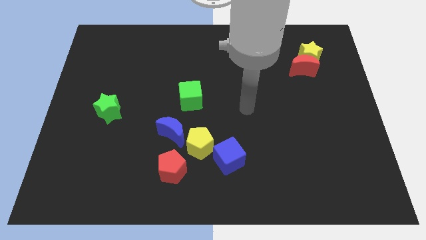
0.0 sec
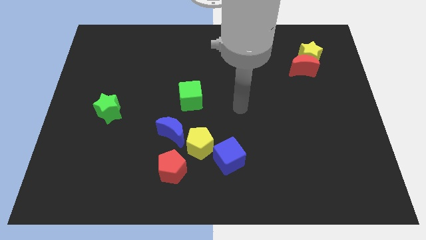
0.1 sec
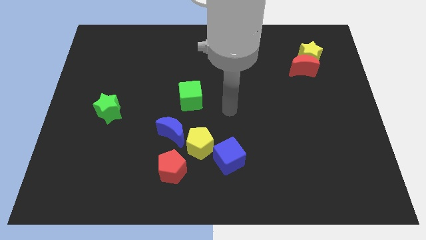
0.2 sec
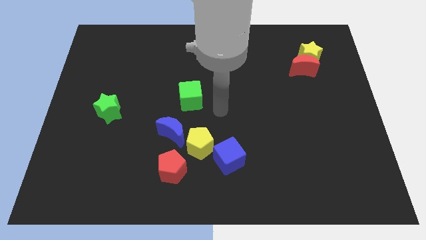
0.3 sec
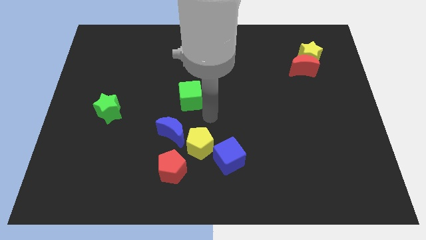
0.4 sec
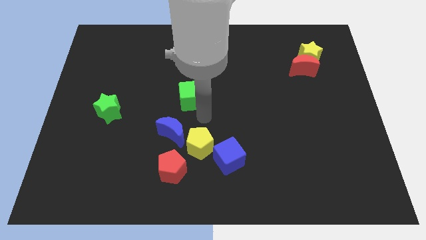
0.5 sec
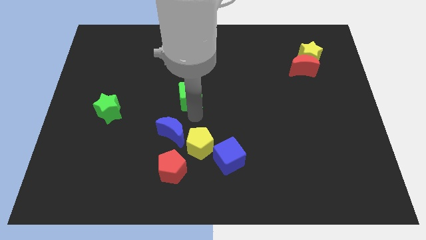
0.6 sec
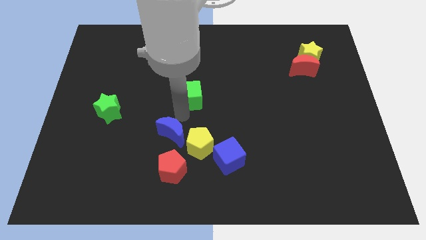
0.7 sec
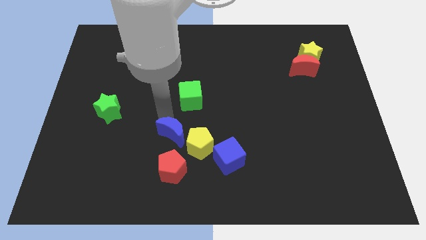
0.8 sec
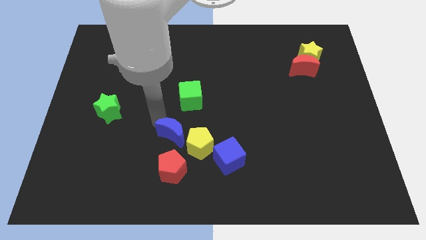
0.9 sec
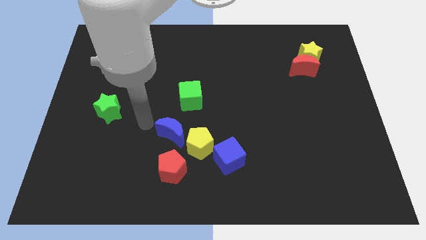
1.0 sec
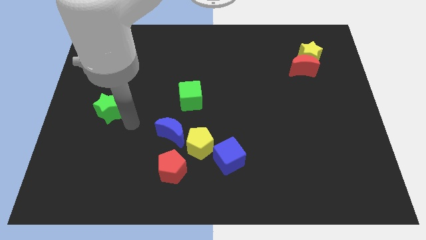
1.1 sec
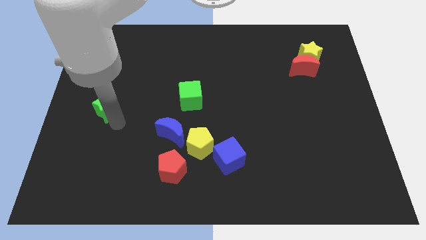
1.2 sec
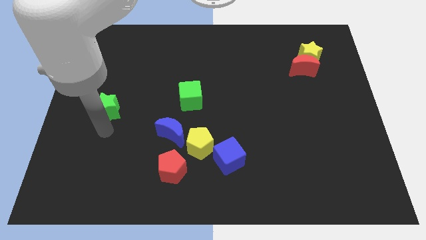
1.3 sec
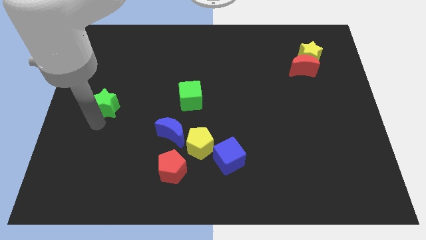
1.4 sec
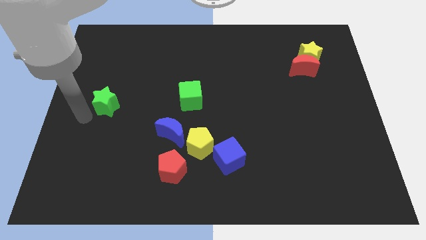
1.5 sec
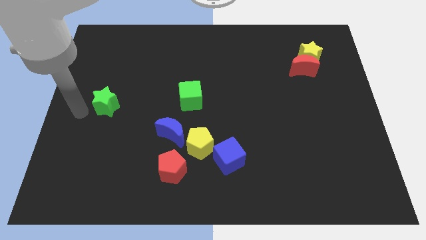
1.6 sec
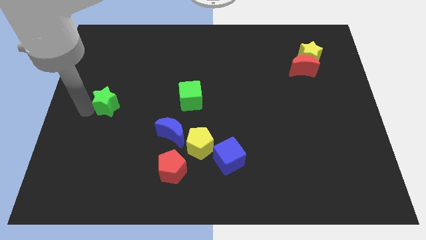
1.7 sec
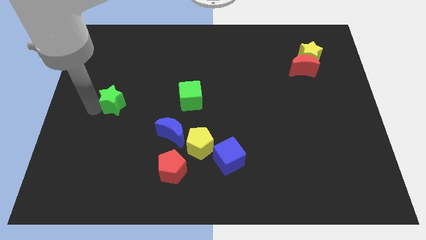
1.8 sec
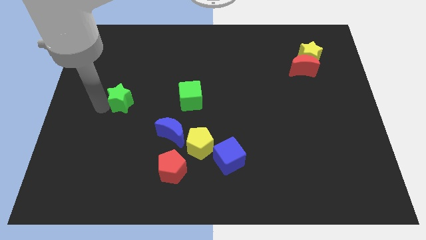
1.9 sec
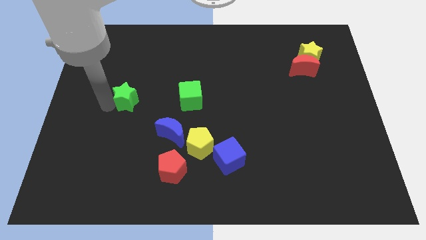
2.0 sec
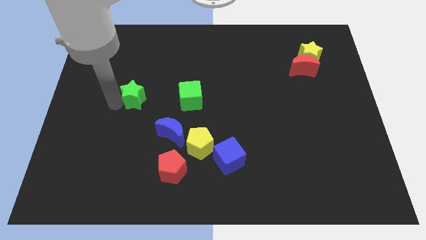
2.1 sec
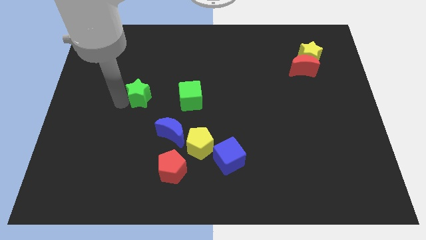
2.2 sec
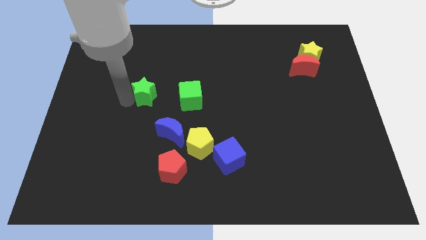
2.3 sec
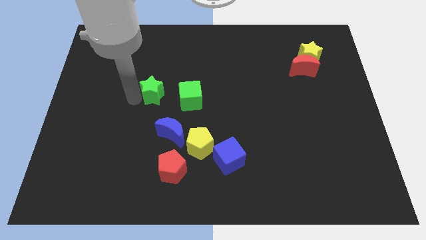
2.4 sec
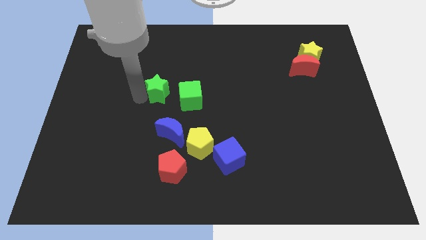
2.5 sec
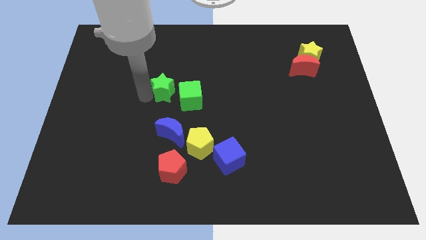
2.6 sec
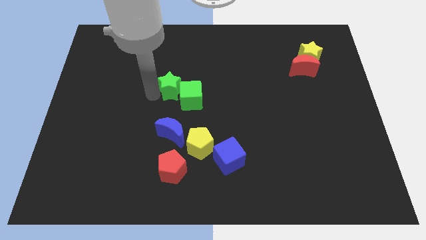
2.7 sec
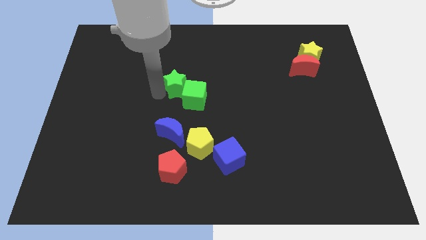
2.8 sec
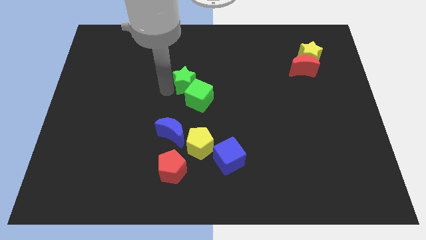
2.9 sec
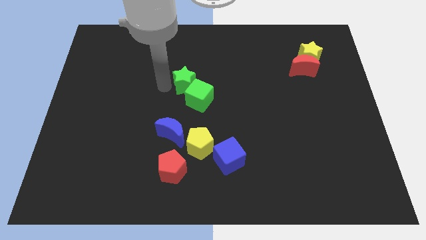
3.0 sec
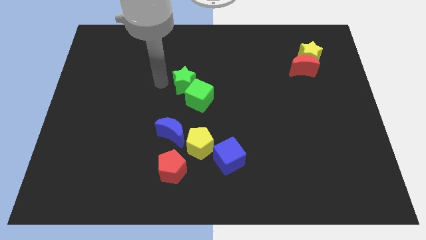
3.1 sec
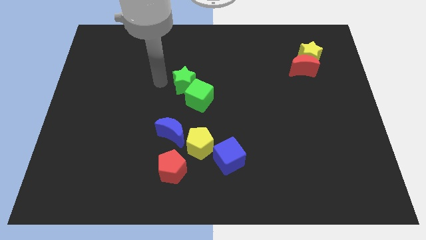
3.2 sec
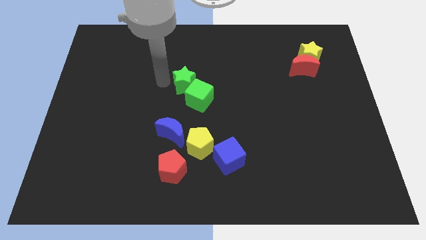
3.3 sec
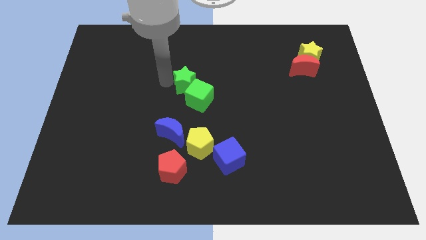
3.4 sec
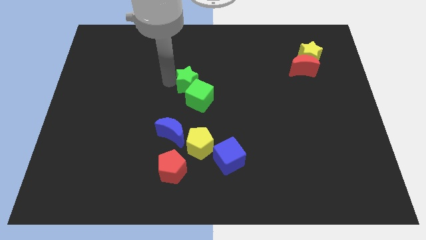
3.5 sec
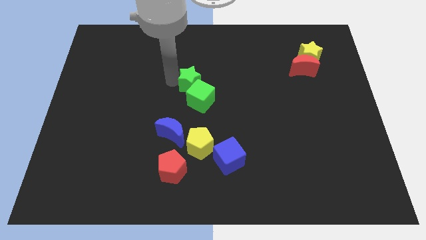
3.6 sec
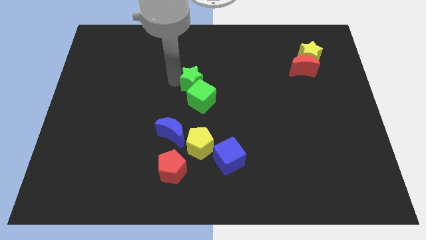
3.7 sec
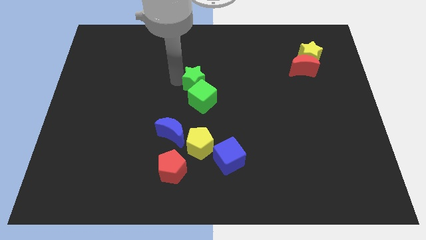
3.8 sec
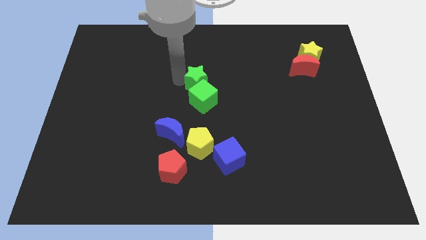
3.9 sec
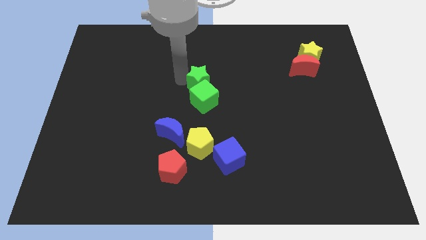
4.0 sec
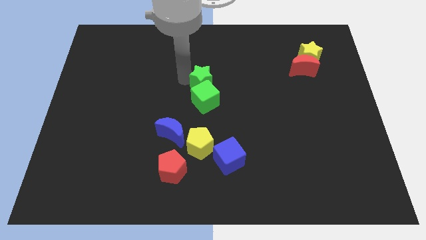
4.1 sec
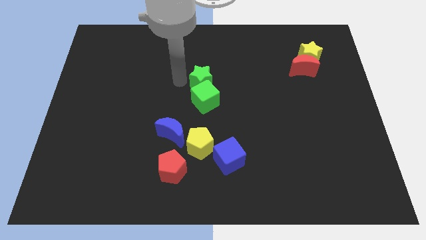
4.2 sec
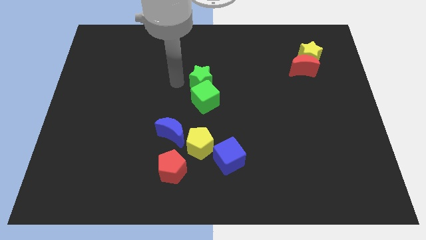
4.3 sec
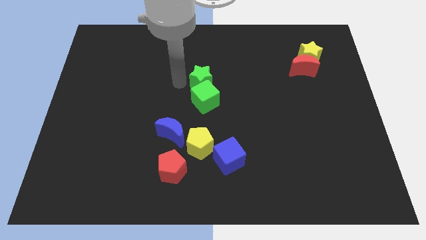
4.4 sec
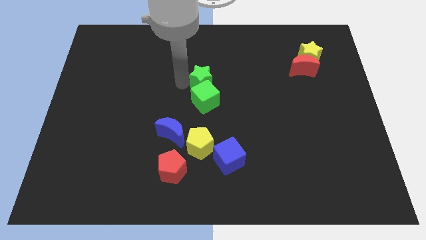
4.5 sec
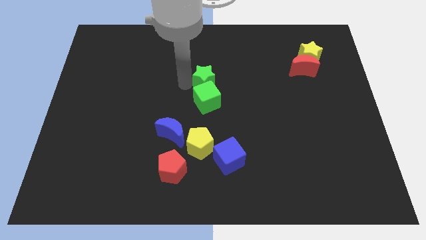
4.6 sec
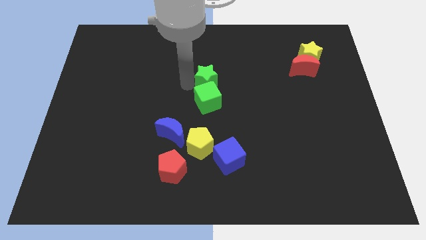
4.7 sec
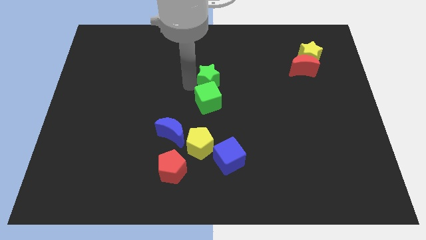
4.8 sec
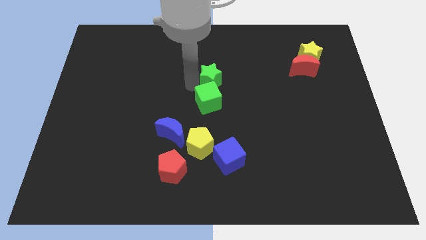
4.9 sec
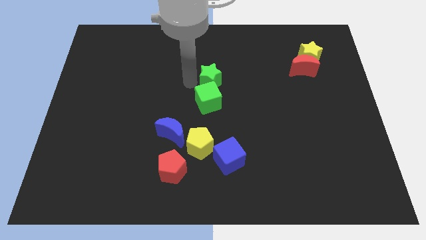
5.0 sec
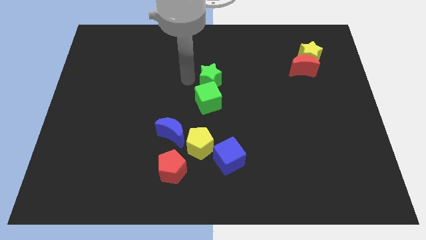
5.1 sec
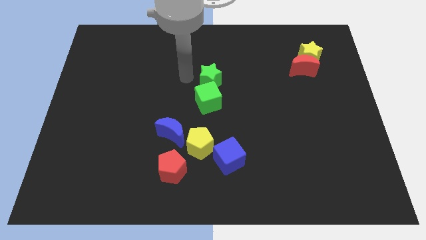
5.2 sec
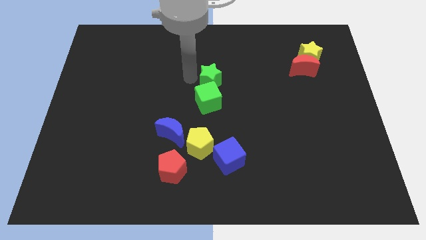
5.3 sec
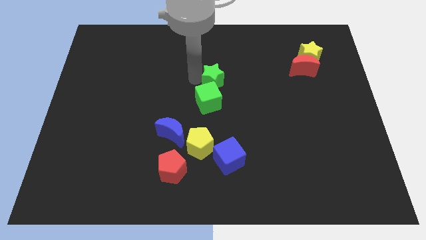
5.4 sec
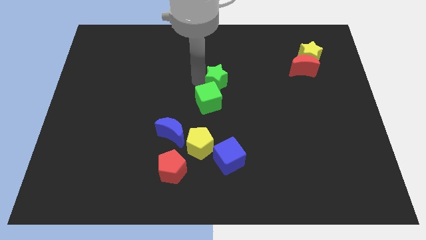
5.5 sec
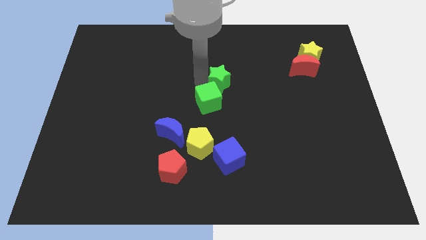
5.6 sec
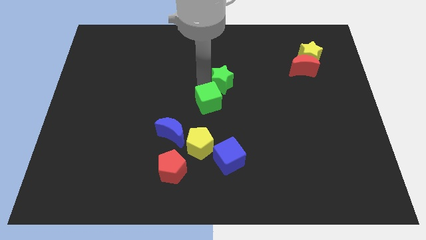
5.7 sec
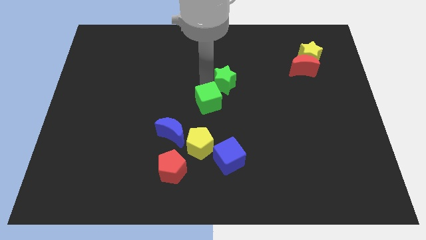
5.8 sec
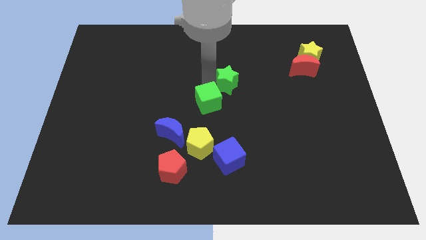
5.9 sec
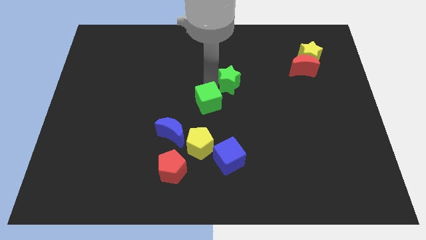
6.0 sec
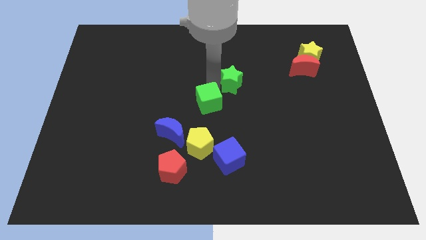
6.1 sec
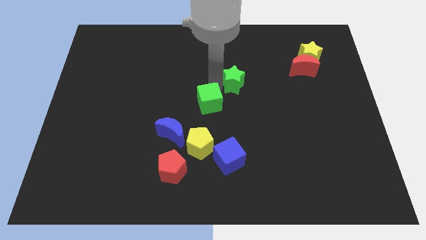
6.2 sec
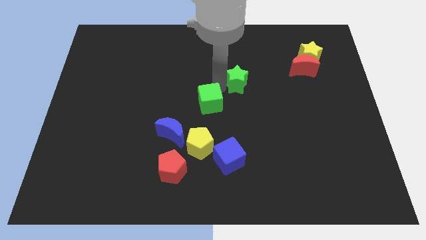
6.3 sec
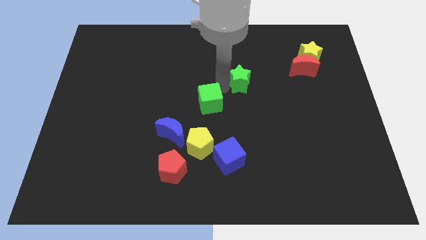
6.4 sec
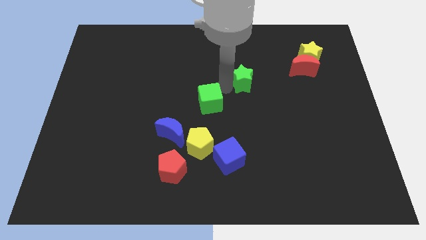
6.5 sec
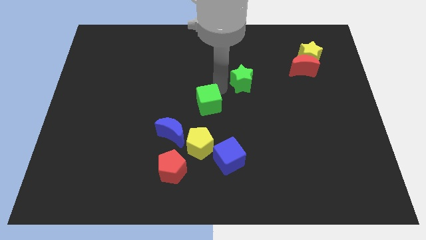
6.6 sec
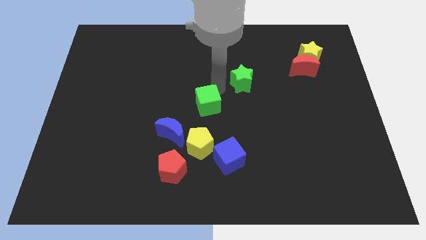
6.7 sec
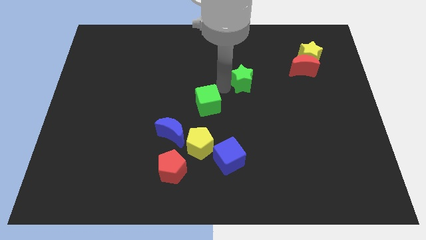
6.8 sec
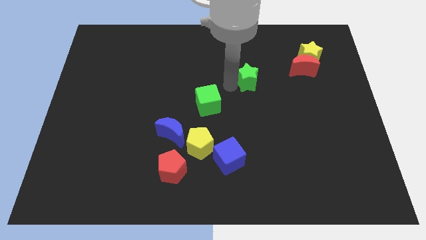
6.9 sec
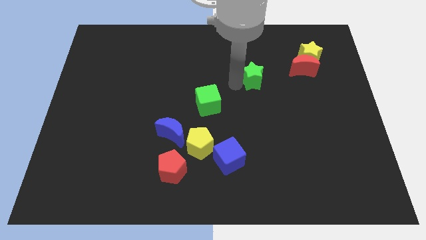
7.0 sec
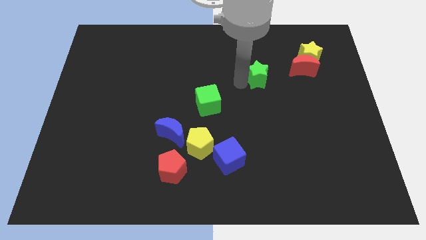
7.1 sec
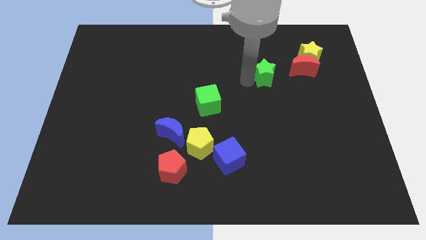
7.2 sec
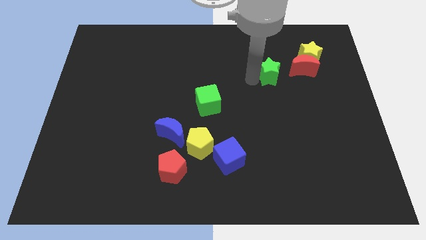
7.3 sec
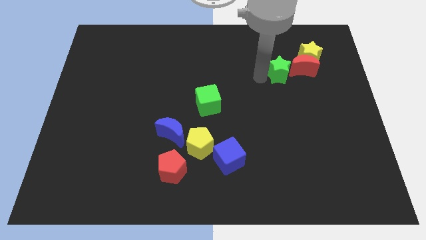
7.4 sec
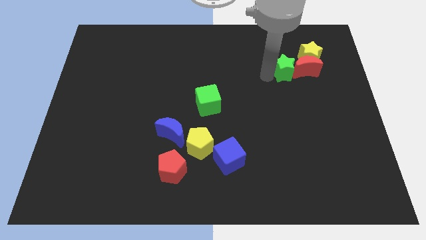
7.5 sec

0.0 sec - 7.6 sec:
slide the green star next to the red moon
